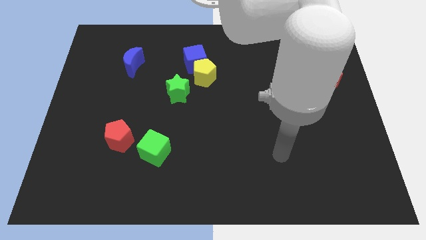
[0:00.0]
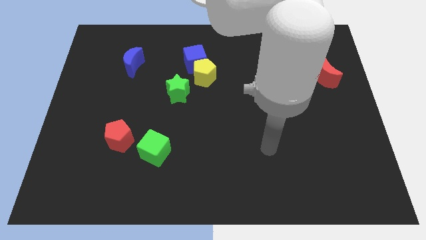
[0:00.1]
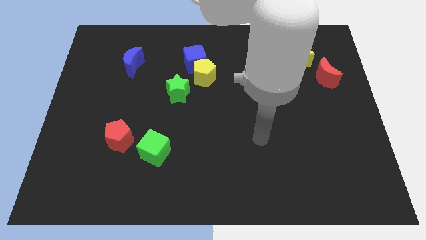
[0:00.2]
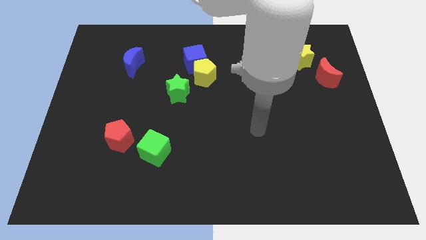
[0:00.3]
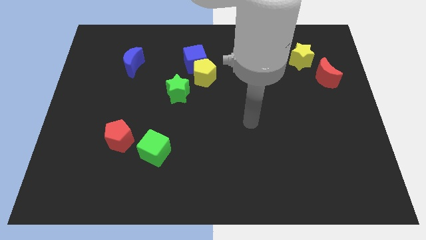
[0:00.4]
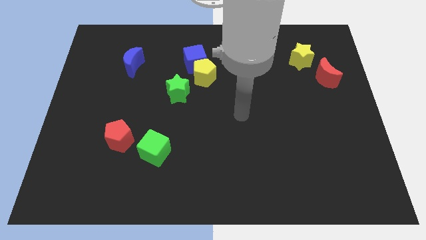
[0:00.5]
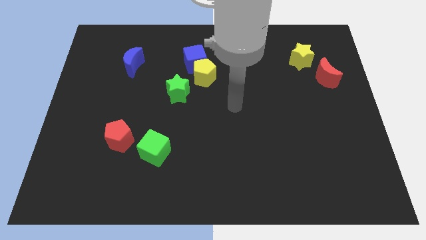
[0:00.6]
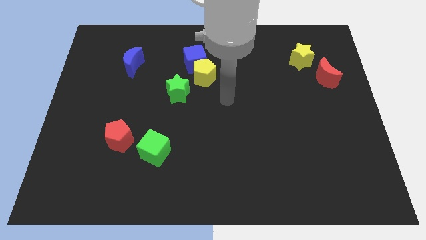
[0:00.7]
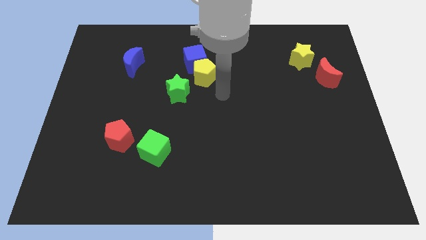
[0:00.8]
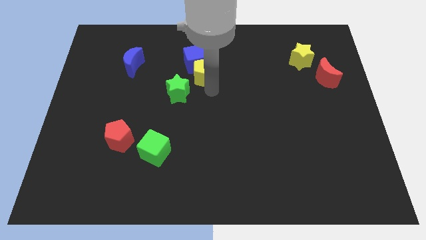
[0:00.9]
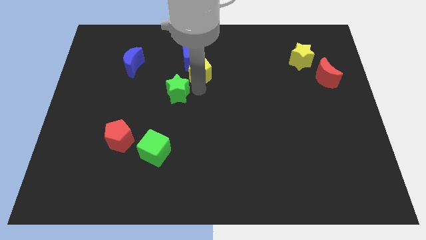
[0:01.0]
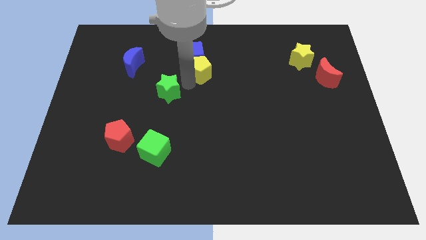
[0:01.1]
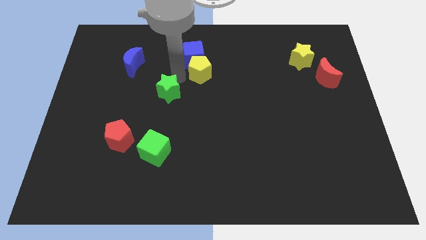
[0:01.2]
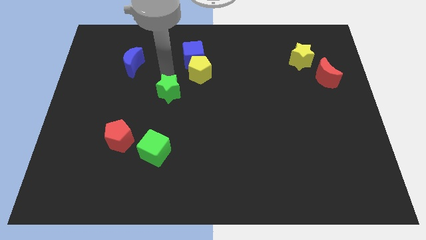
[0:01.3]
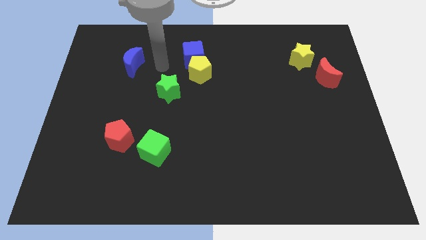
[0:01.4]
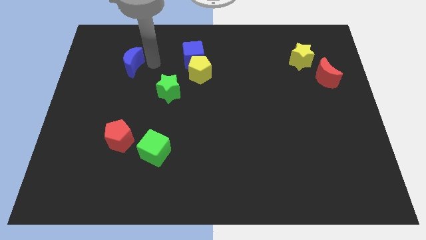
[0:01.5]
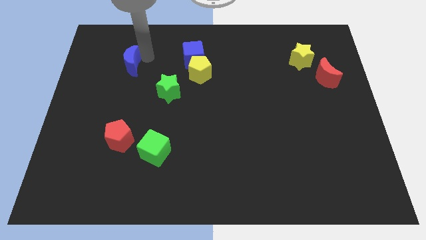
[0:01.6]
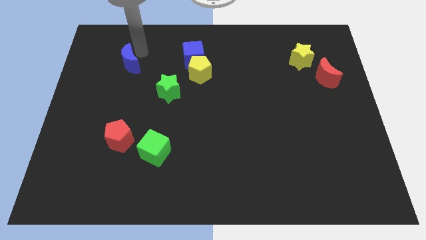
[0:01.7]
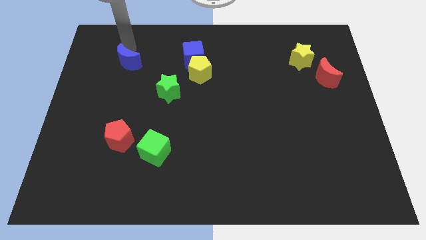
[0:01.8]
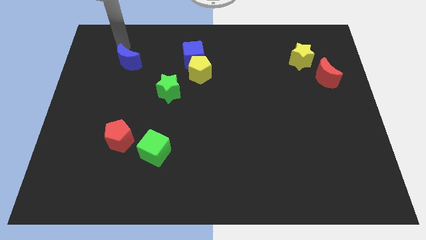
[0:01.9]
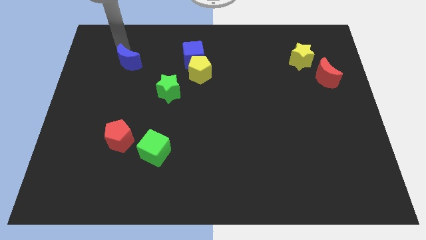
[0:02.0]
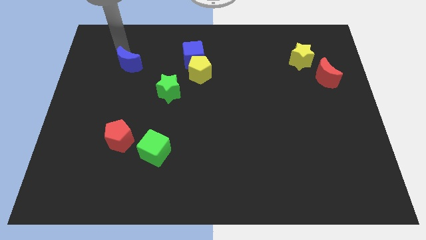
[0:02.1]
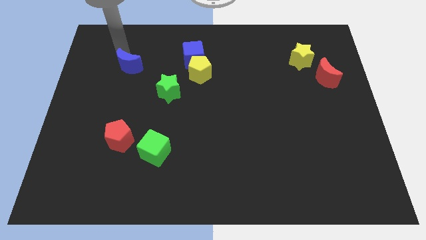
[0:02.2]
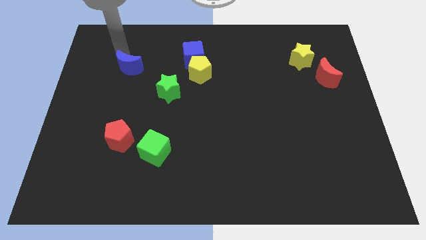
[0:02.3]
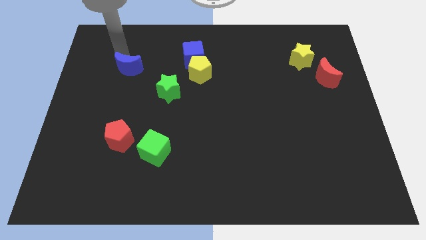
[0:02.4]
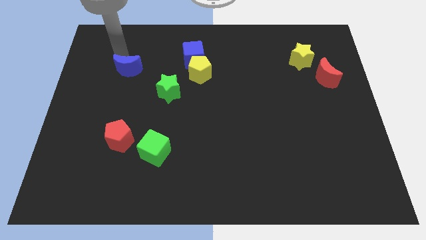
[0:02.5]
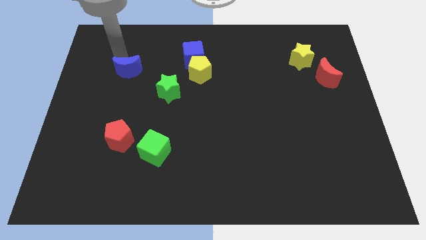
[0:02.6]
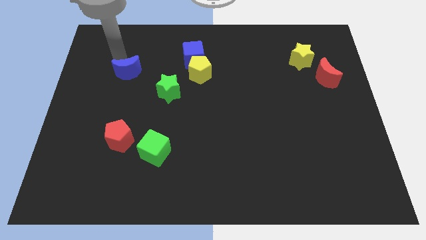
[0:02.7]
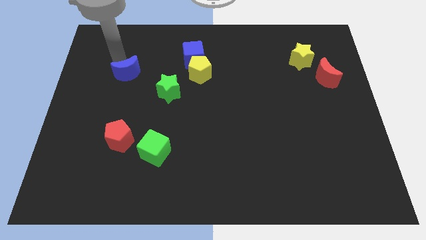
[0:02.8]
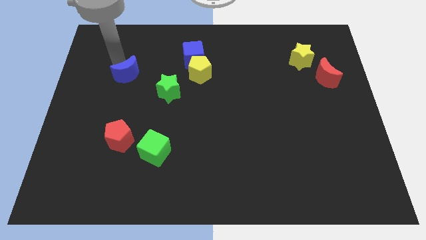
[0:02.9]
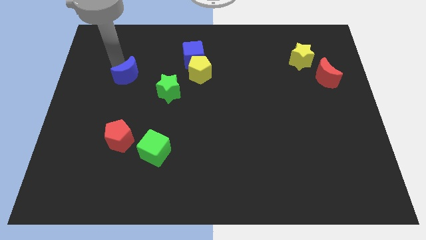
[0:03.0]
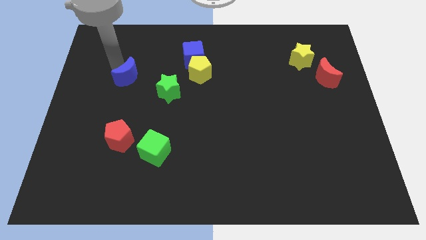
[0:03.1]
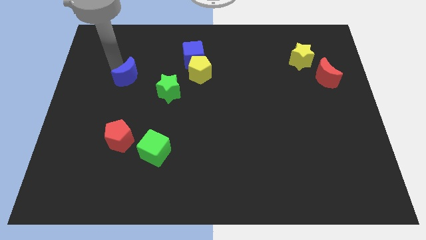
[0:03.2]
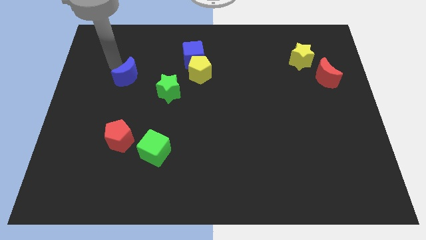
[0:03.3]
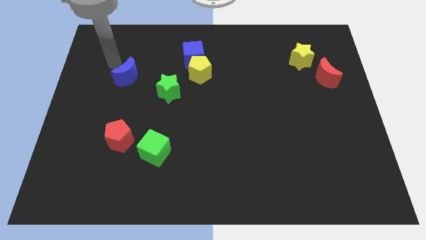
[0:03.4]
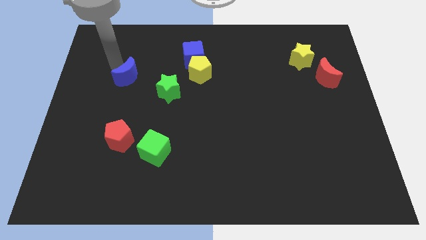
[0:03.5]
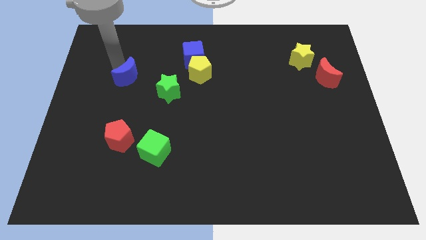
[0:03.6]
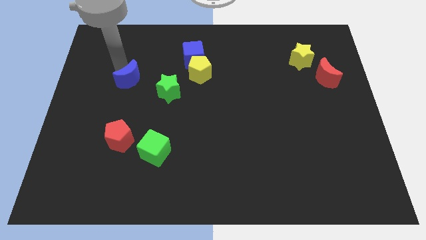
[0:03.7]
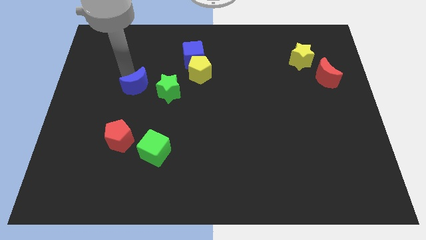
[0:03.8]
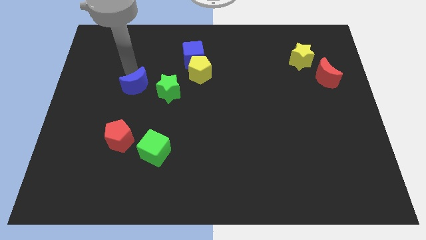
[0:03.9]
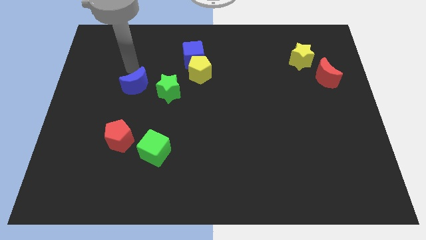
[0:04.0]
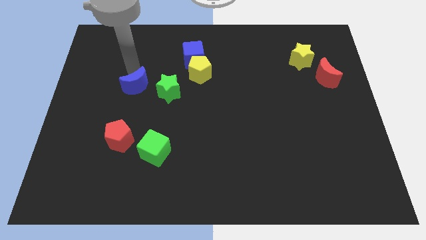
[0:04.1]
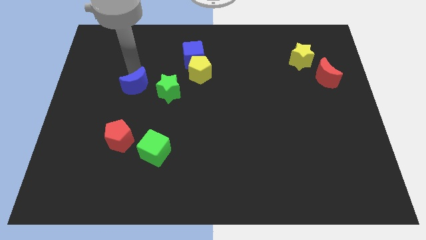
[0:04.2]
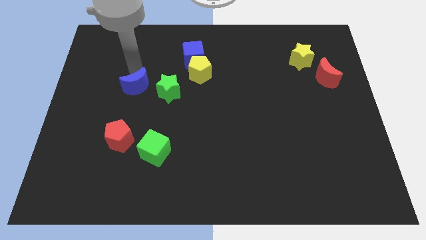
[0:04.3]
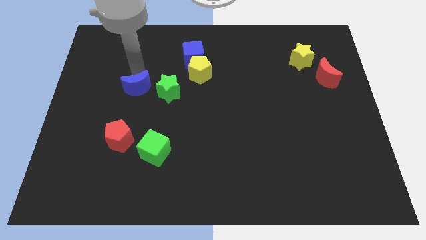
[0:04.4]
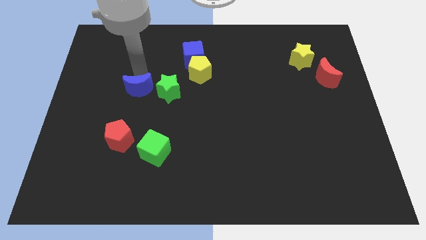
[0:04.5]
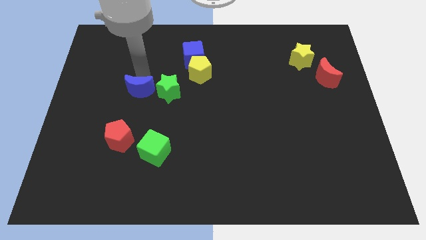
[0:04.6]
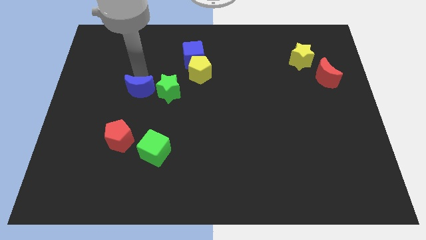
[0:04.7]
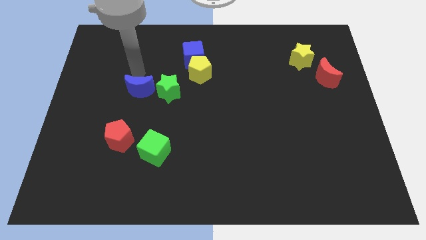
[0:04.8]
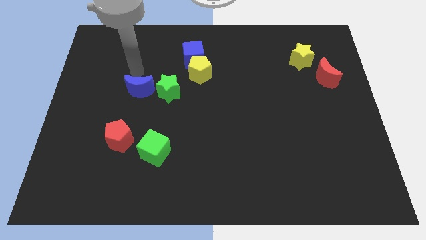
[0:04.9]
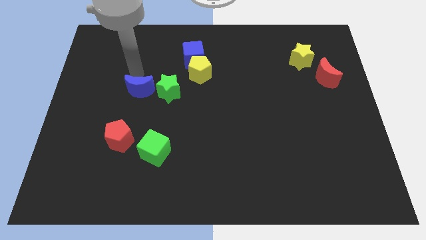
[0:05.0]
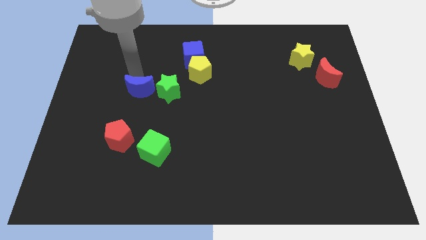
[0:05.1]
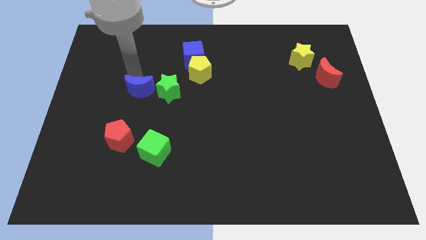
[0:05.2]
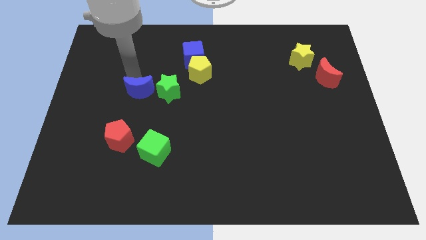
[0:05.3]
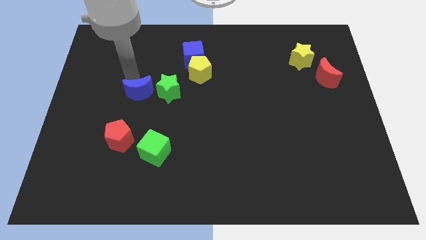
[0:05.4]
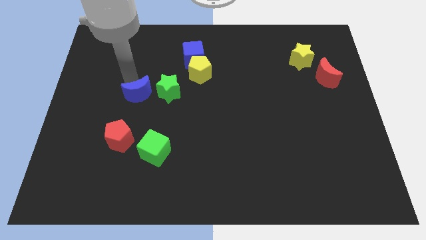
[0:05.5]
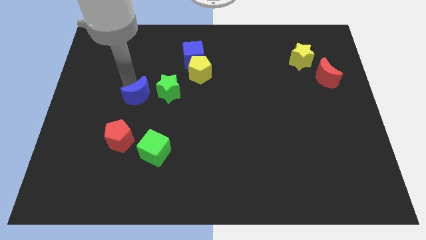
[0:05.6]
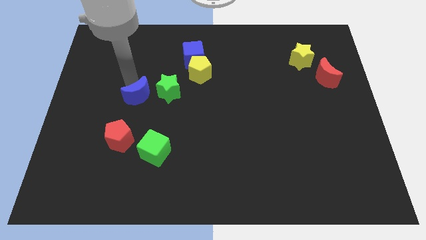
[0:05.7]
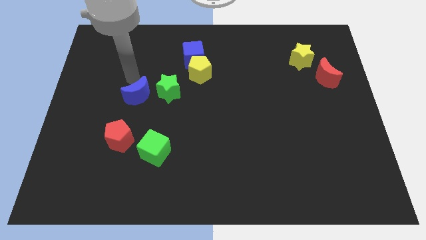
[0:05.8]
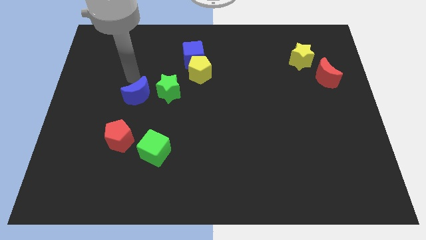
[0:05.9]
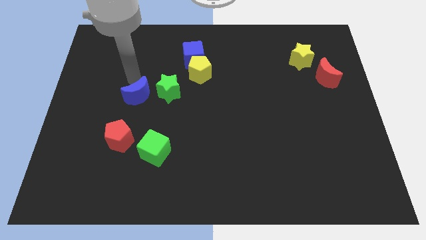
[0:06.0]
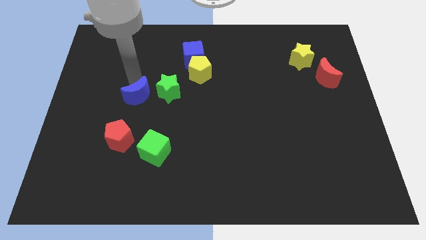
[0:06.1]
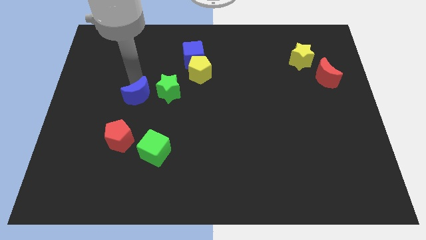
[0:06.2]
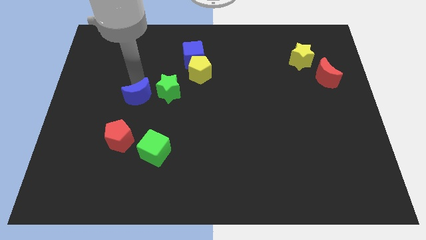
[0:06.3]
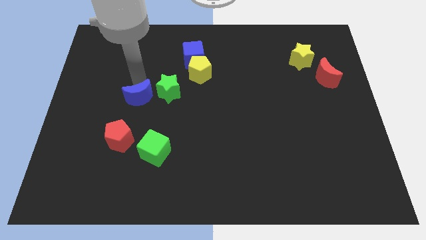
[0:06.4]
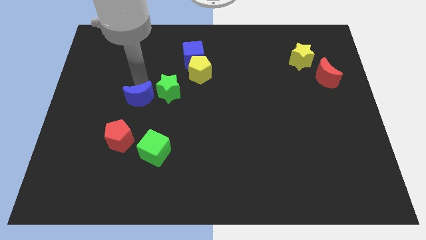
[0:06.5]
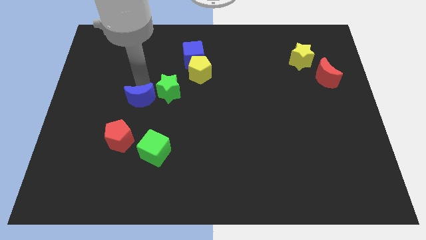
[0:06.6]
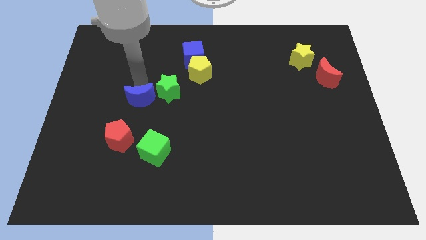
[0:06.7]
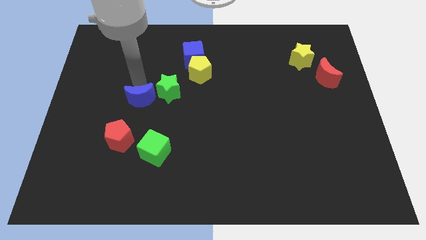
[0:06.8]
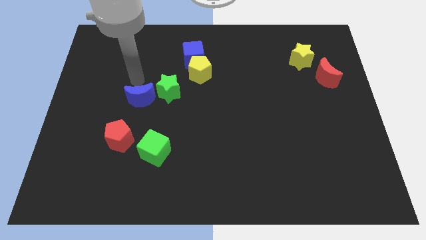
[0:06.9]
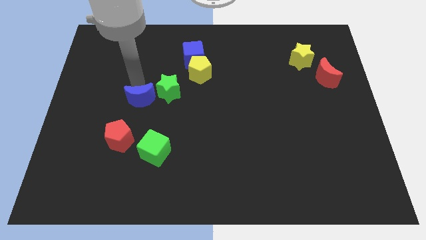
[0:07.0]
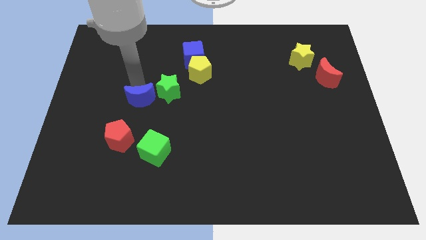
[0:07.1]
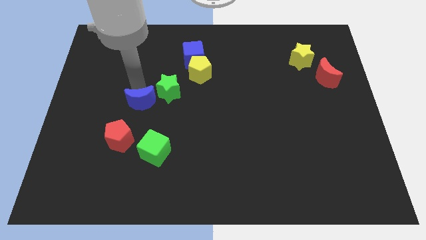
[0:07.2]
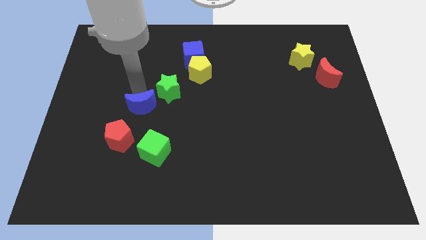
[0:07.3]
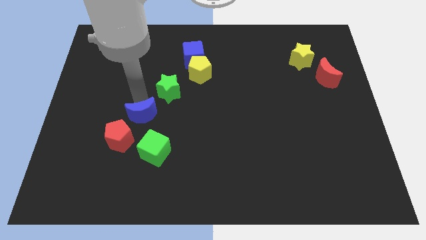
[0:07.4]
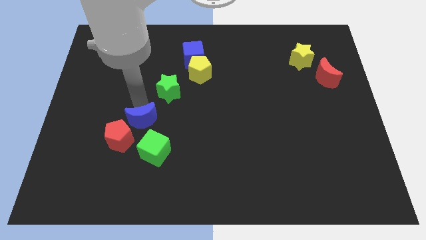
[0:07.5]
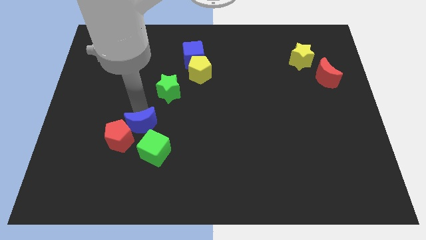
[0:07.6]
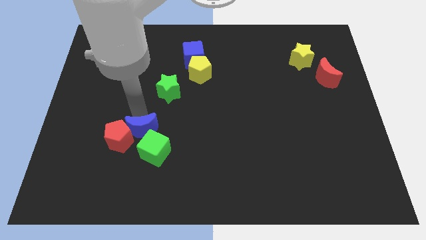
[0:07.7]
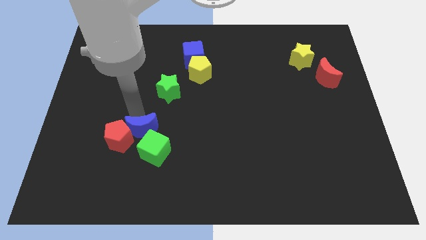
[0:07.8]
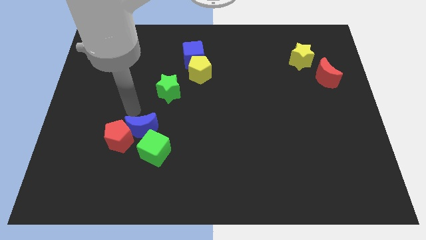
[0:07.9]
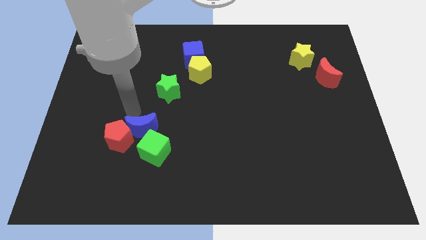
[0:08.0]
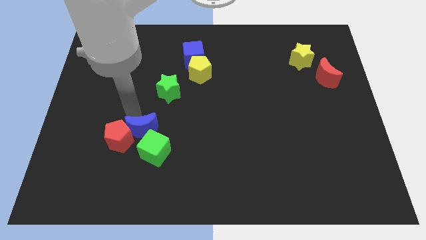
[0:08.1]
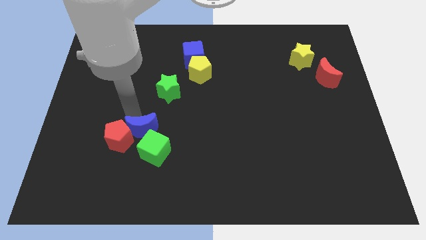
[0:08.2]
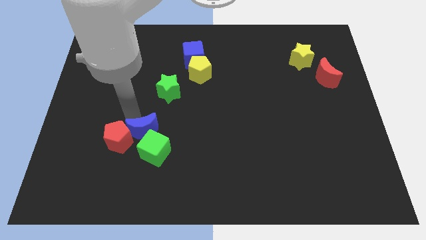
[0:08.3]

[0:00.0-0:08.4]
push the blue moon close to the green cube
